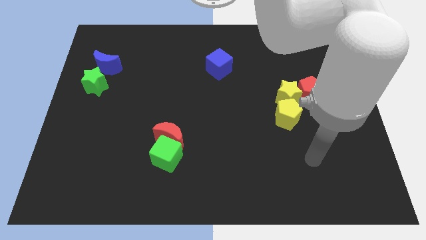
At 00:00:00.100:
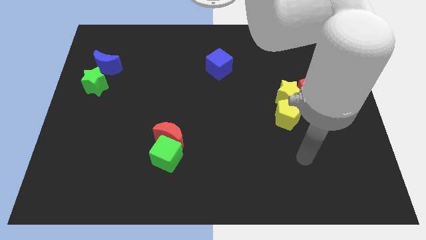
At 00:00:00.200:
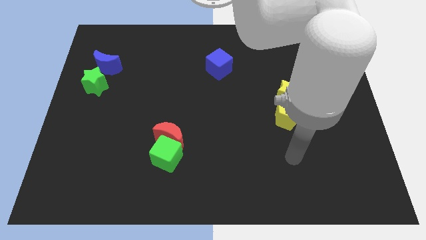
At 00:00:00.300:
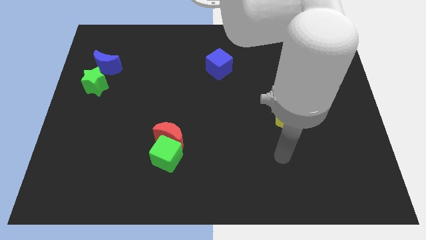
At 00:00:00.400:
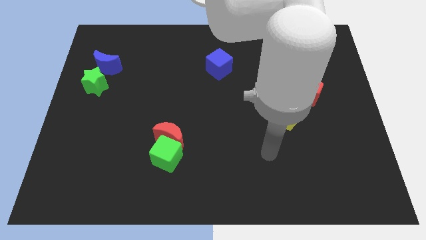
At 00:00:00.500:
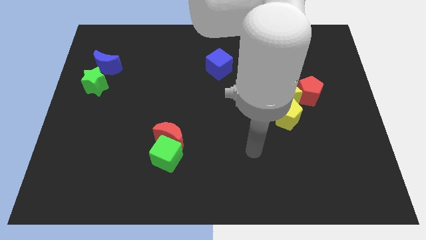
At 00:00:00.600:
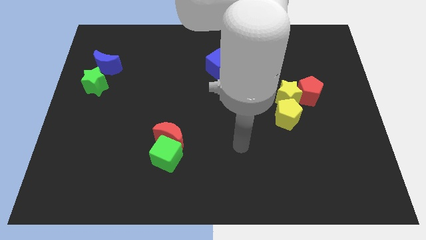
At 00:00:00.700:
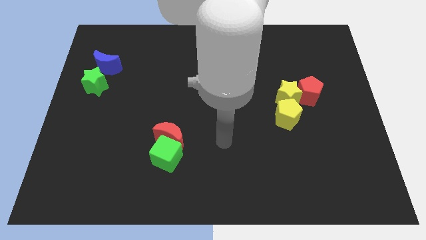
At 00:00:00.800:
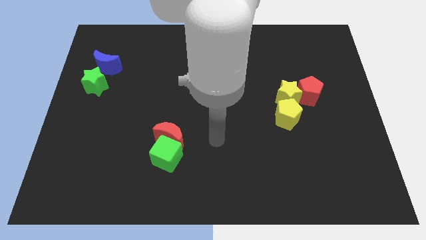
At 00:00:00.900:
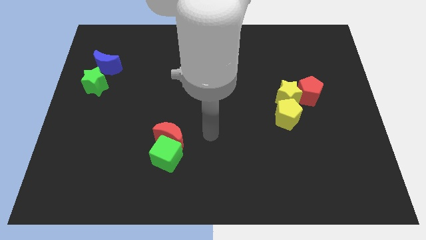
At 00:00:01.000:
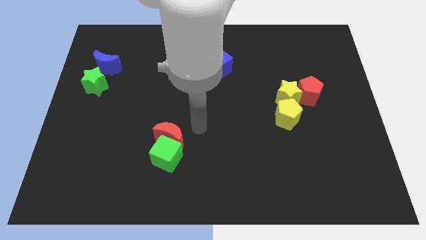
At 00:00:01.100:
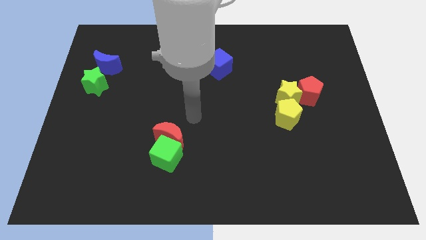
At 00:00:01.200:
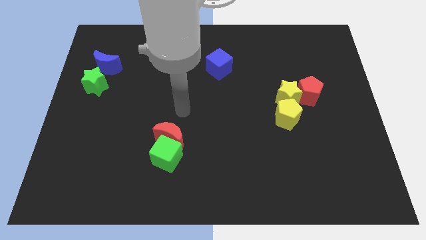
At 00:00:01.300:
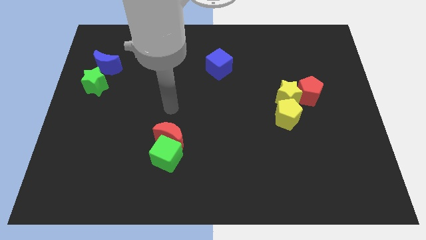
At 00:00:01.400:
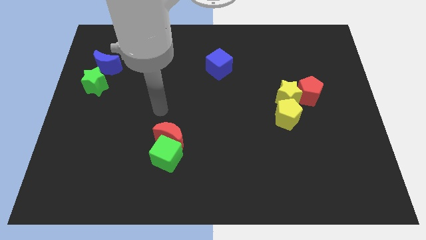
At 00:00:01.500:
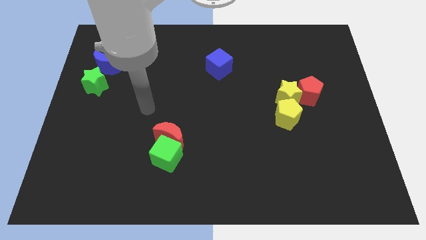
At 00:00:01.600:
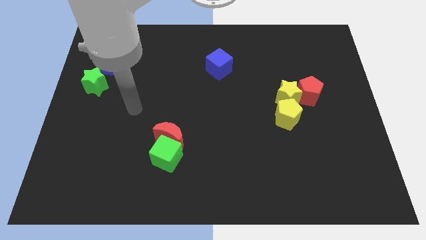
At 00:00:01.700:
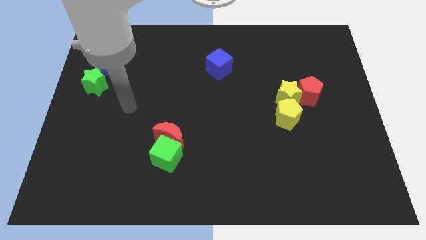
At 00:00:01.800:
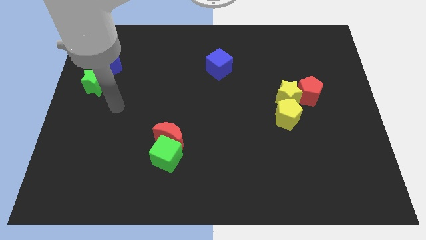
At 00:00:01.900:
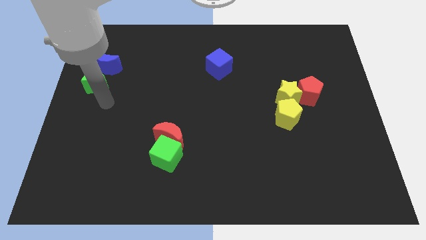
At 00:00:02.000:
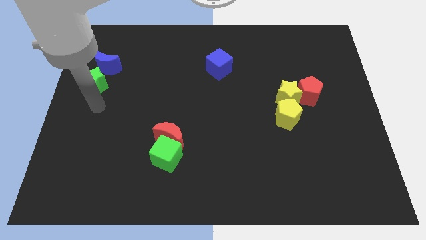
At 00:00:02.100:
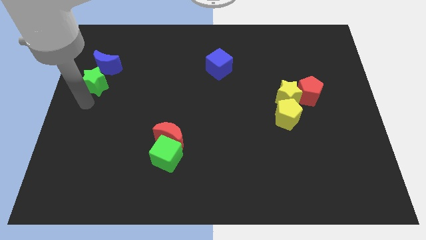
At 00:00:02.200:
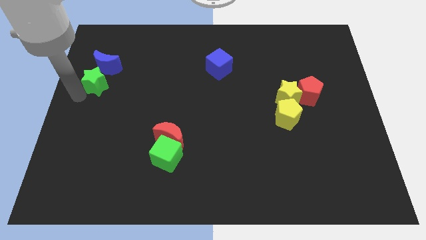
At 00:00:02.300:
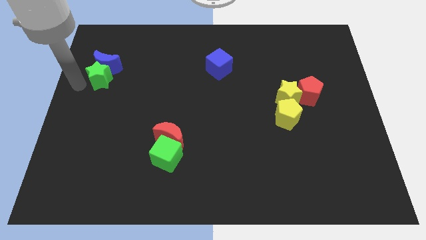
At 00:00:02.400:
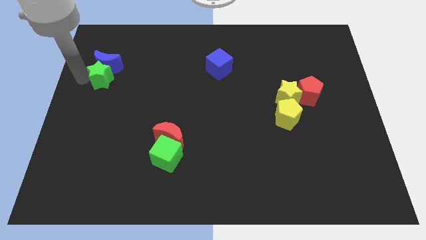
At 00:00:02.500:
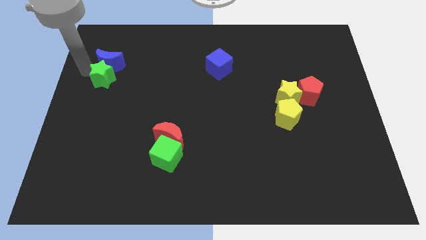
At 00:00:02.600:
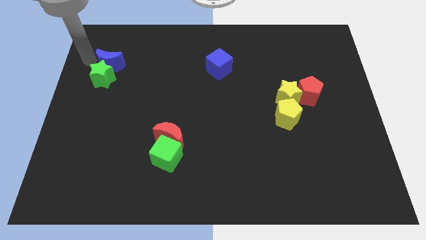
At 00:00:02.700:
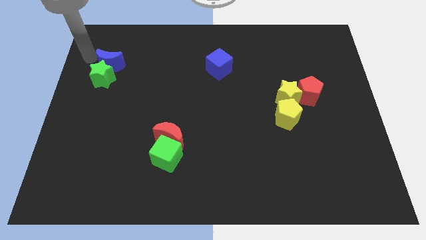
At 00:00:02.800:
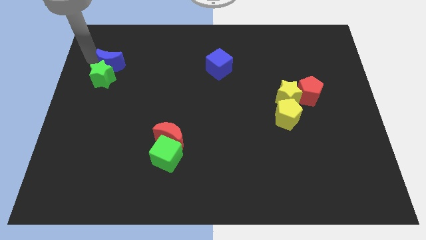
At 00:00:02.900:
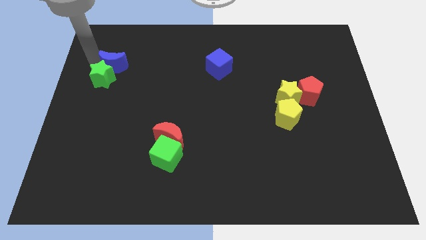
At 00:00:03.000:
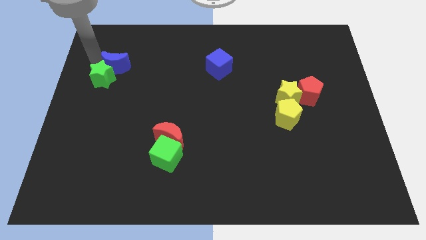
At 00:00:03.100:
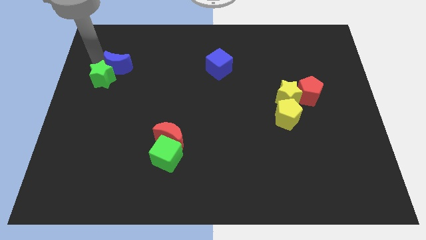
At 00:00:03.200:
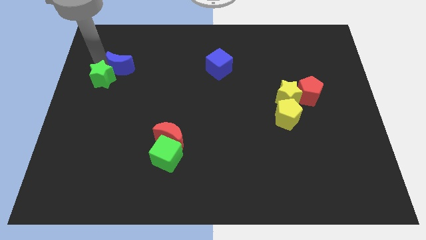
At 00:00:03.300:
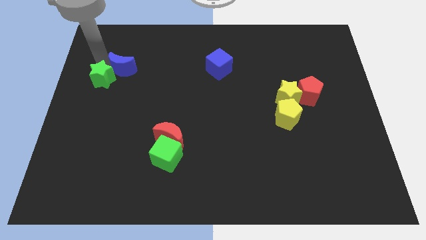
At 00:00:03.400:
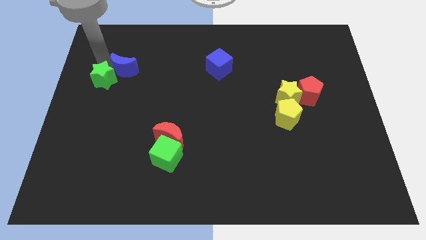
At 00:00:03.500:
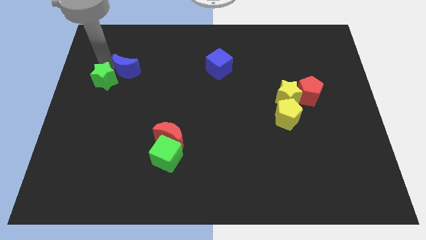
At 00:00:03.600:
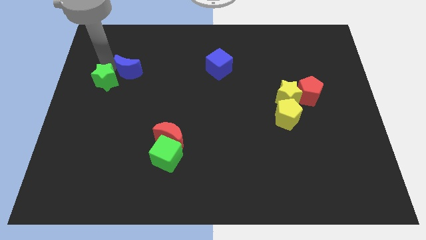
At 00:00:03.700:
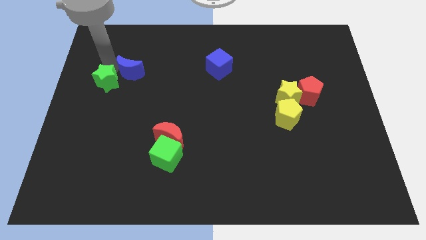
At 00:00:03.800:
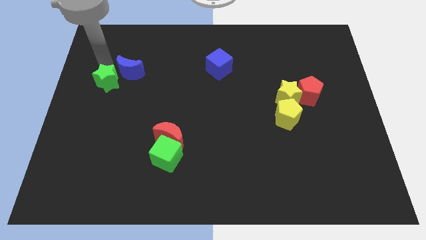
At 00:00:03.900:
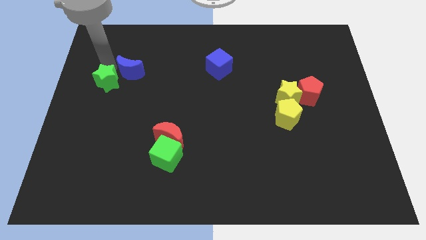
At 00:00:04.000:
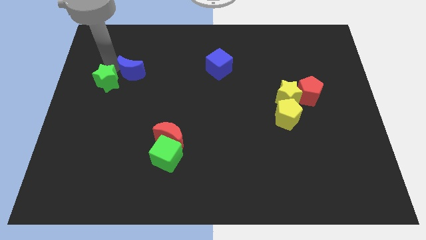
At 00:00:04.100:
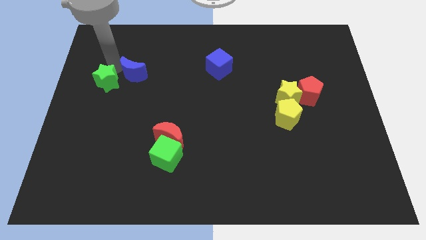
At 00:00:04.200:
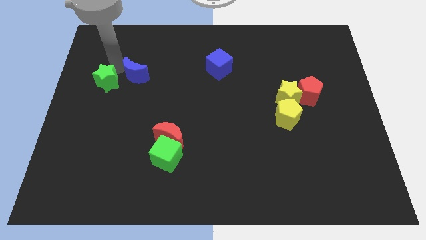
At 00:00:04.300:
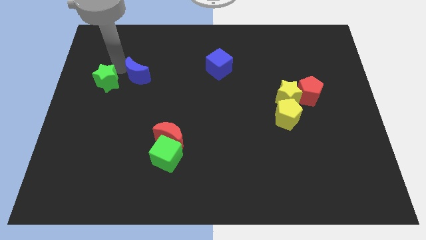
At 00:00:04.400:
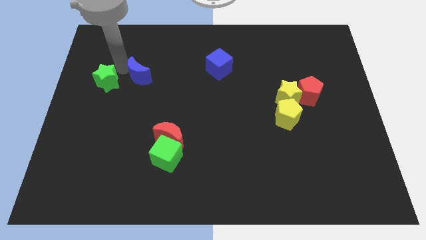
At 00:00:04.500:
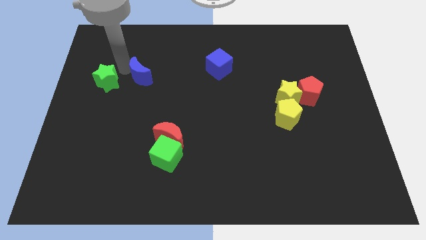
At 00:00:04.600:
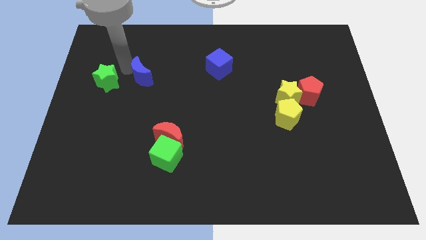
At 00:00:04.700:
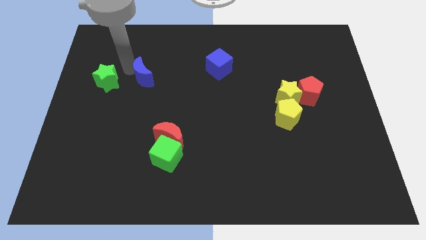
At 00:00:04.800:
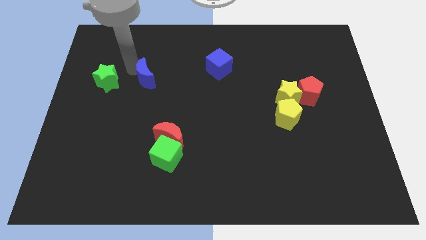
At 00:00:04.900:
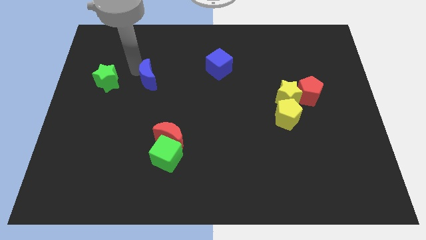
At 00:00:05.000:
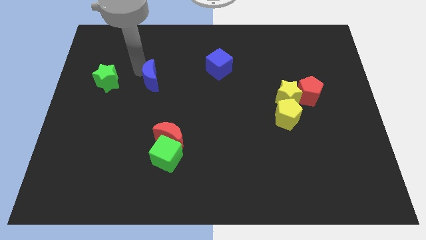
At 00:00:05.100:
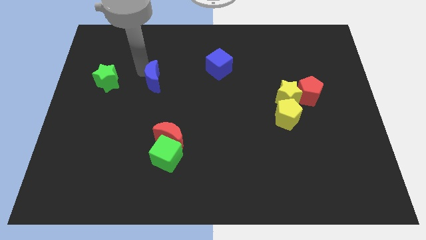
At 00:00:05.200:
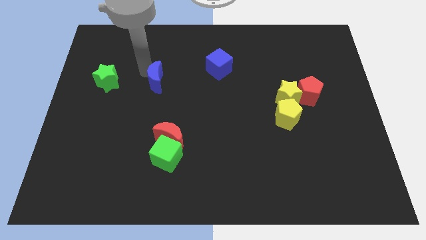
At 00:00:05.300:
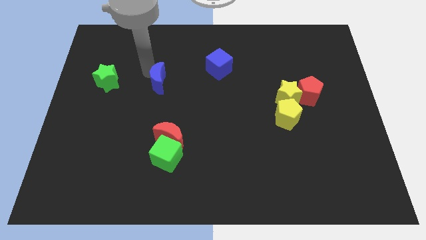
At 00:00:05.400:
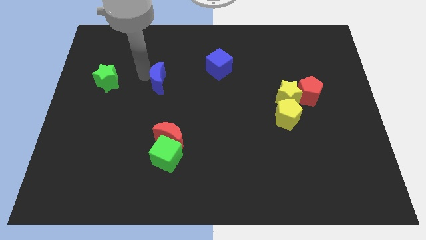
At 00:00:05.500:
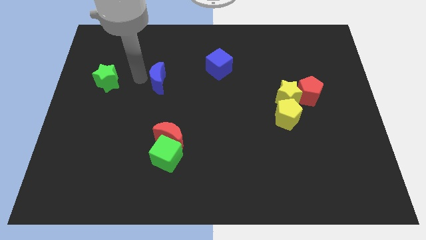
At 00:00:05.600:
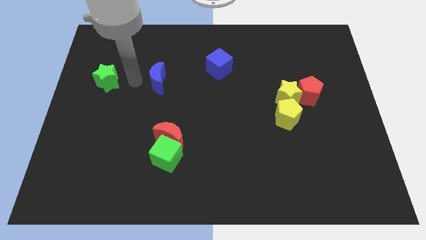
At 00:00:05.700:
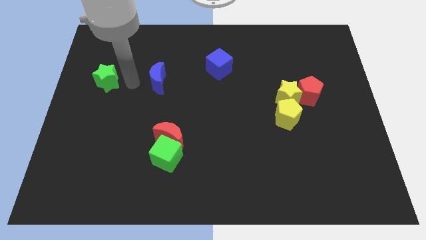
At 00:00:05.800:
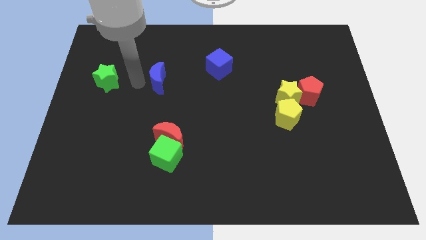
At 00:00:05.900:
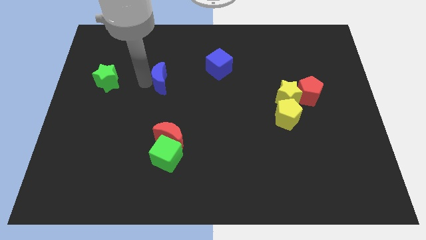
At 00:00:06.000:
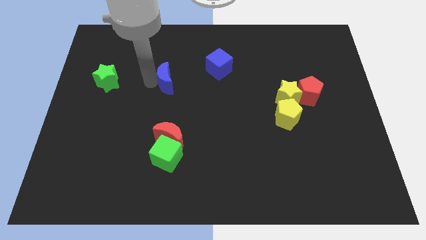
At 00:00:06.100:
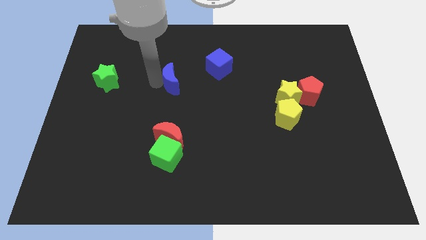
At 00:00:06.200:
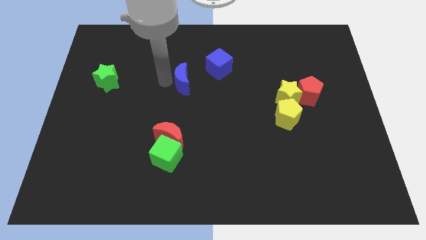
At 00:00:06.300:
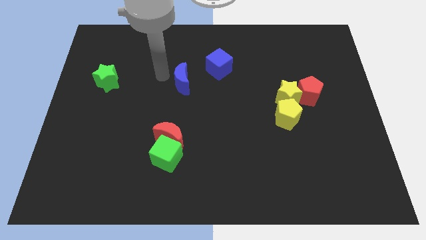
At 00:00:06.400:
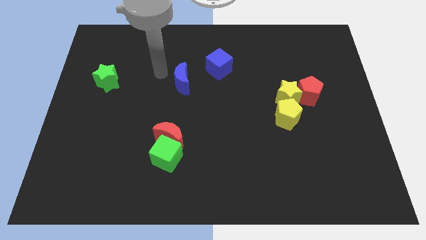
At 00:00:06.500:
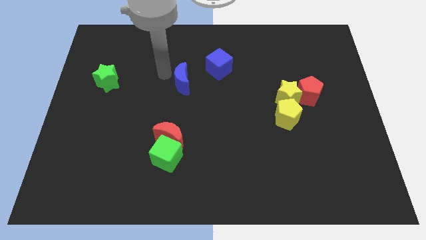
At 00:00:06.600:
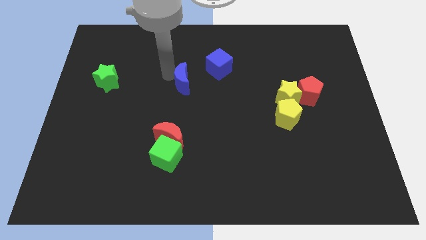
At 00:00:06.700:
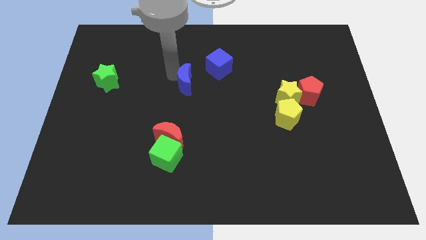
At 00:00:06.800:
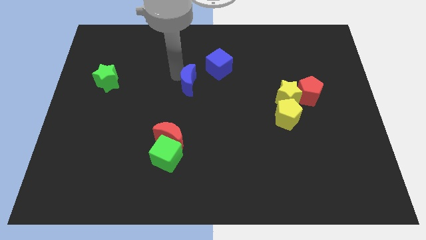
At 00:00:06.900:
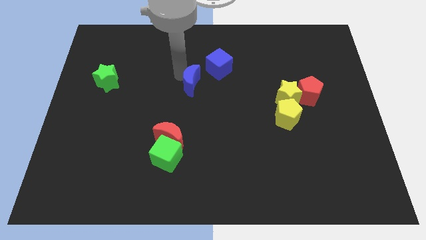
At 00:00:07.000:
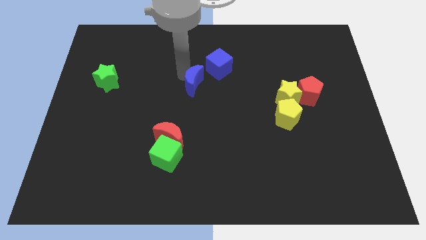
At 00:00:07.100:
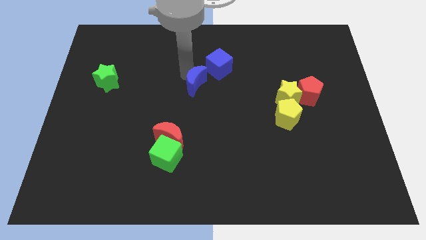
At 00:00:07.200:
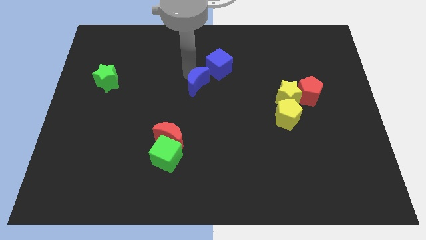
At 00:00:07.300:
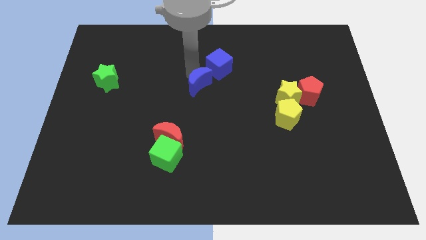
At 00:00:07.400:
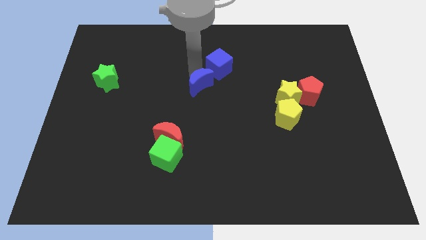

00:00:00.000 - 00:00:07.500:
put the blue moon below the blue cube
